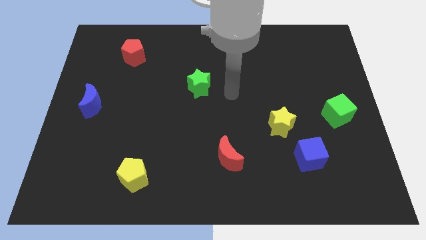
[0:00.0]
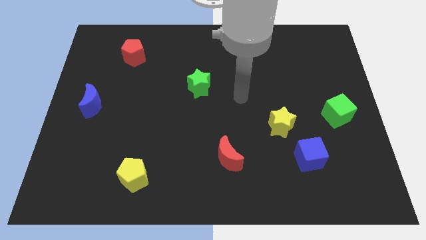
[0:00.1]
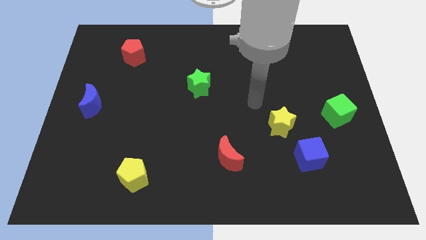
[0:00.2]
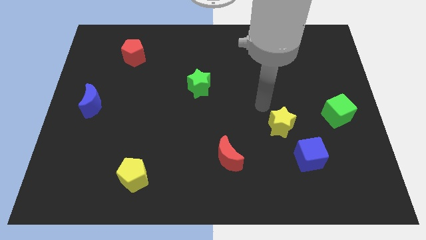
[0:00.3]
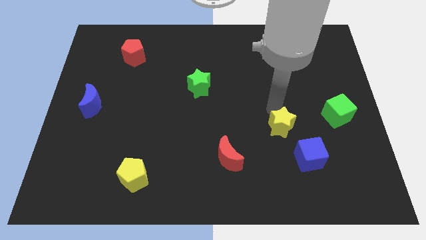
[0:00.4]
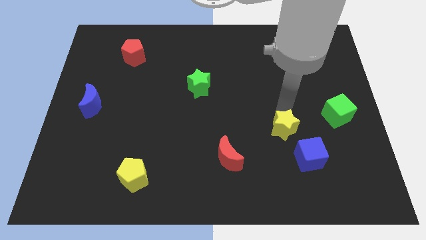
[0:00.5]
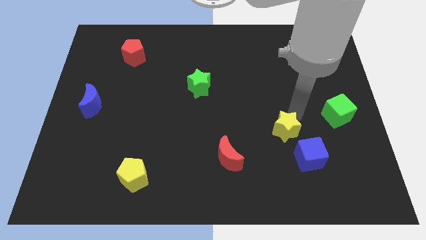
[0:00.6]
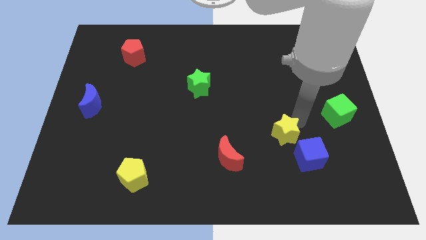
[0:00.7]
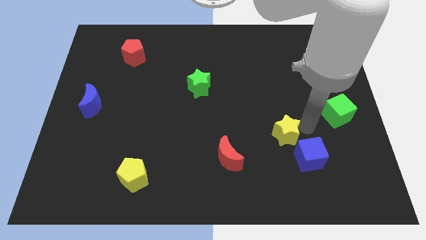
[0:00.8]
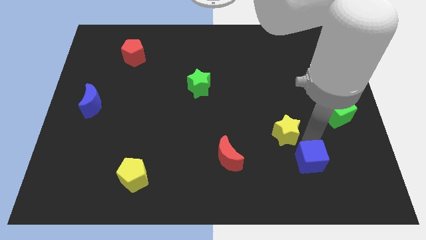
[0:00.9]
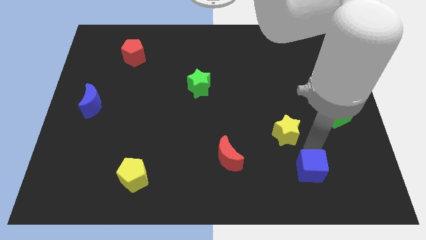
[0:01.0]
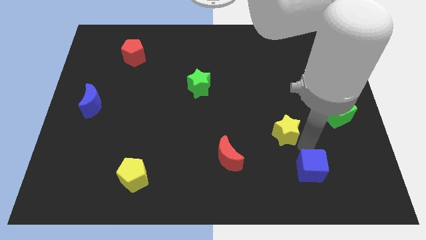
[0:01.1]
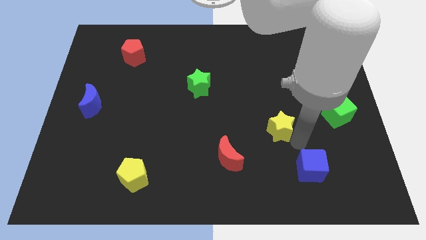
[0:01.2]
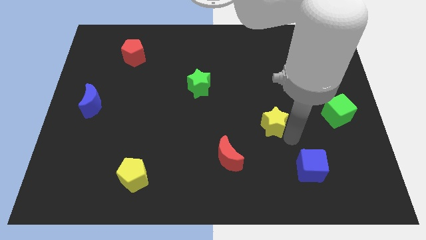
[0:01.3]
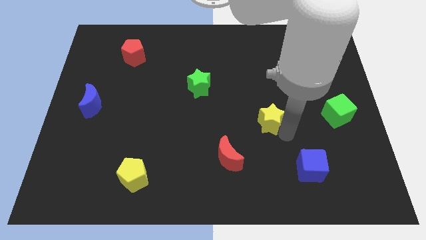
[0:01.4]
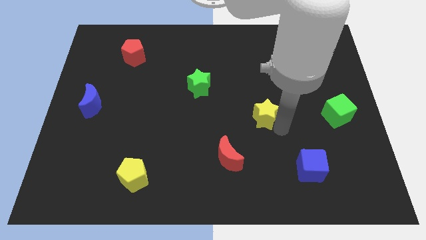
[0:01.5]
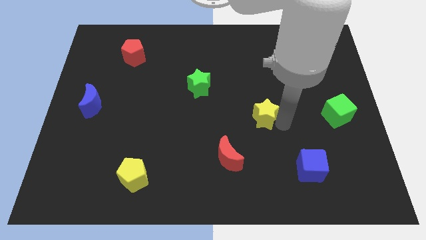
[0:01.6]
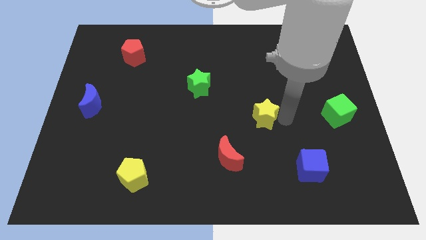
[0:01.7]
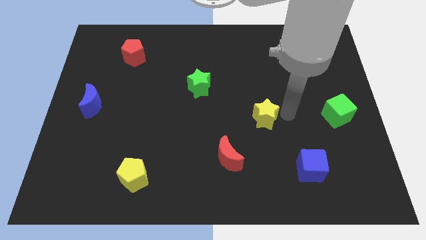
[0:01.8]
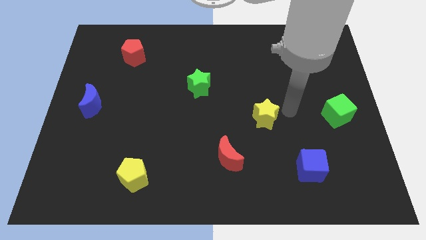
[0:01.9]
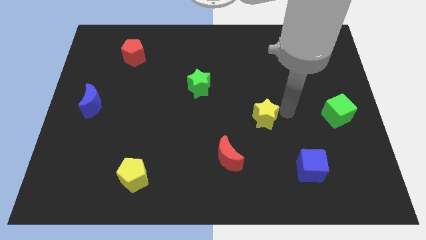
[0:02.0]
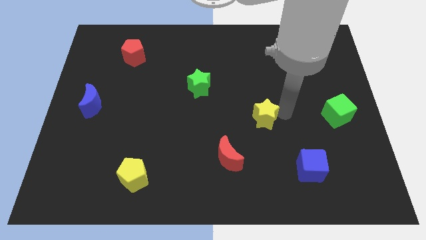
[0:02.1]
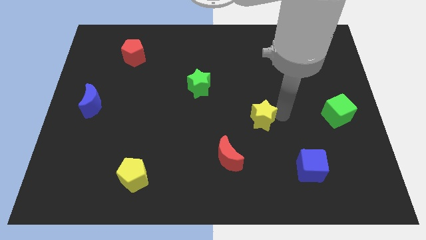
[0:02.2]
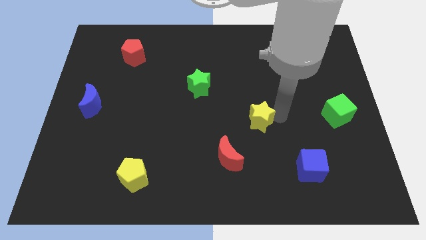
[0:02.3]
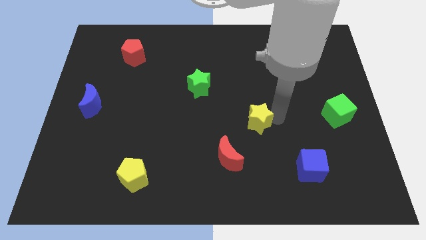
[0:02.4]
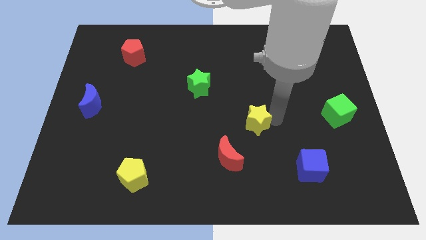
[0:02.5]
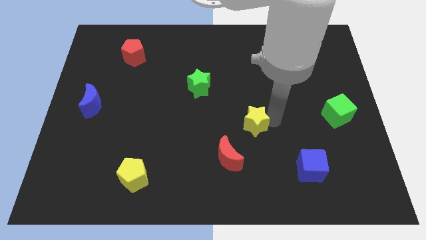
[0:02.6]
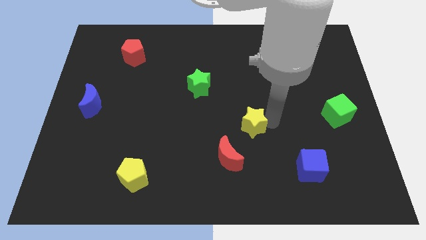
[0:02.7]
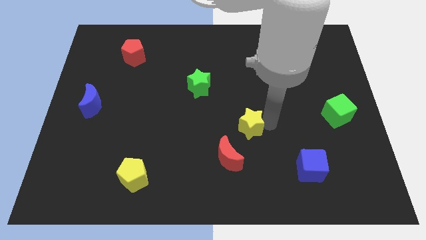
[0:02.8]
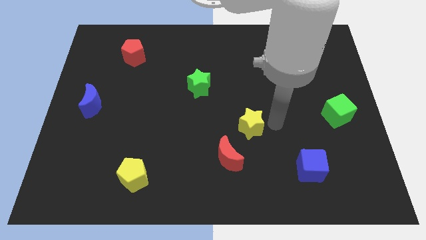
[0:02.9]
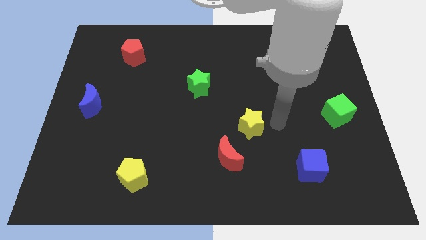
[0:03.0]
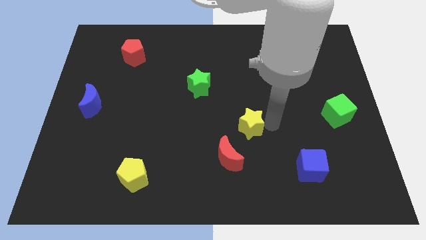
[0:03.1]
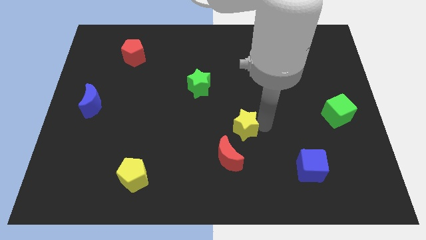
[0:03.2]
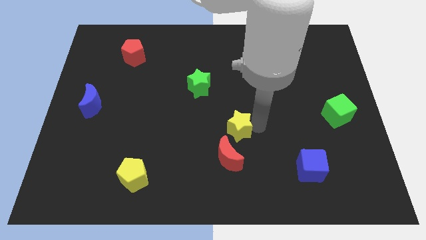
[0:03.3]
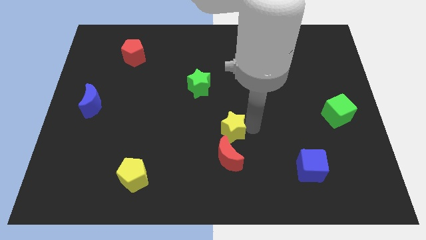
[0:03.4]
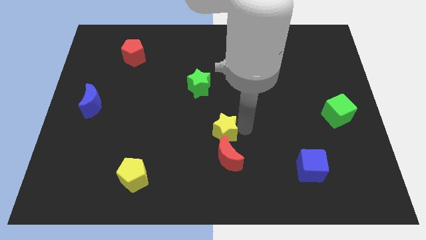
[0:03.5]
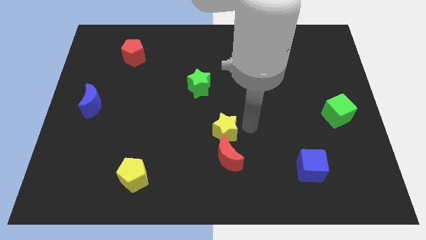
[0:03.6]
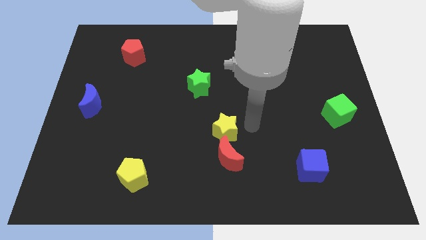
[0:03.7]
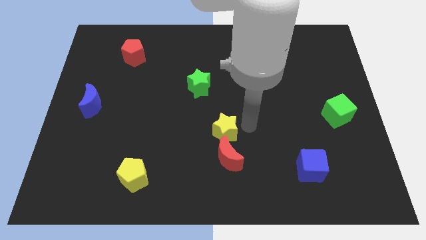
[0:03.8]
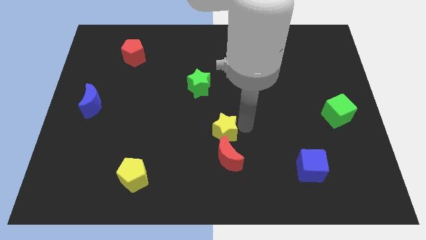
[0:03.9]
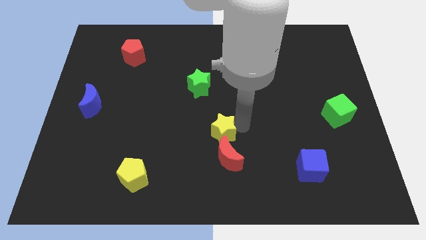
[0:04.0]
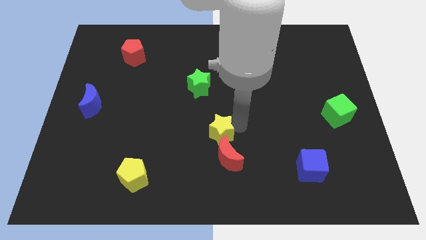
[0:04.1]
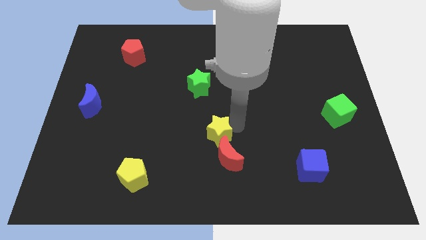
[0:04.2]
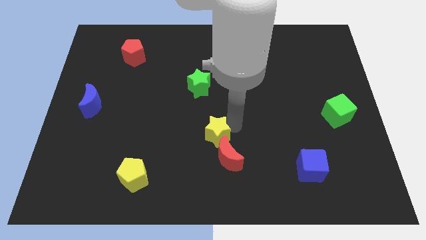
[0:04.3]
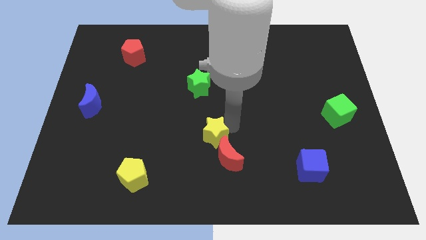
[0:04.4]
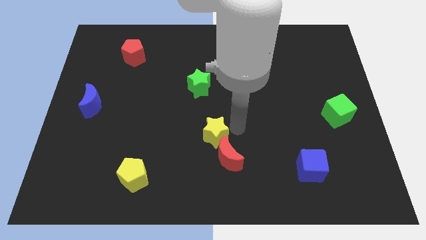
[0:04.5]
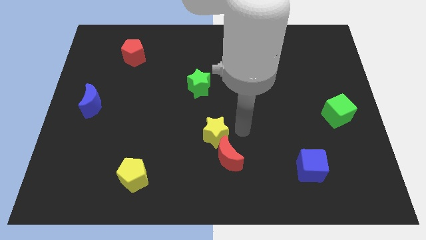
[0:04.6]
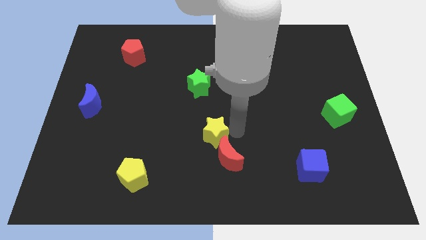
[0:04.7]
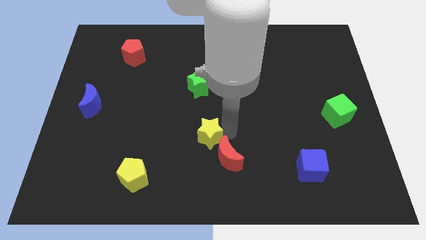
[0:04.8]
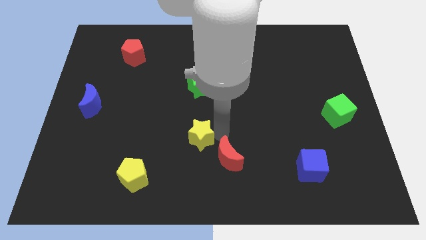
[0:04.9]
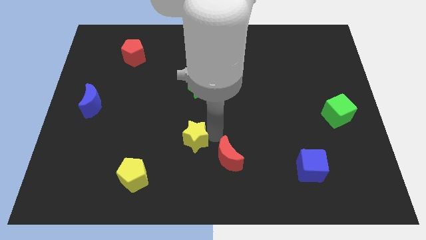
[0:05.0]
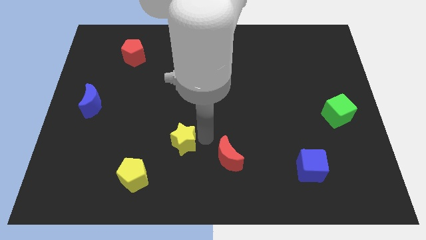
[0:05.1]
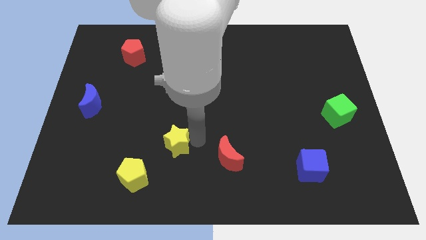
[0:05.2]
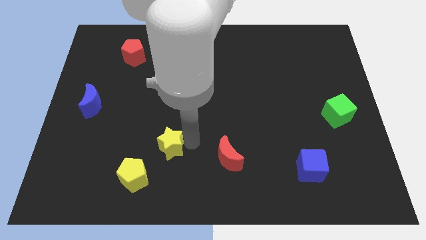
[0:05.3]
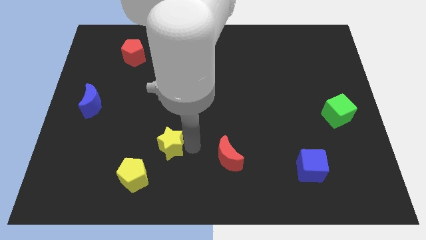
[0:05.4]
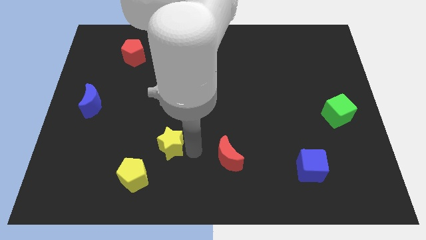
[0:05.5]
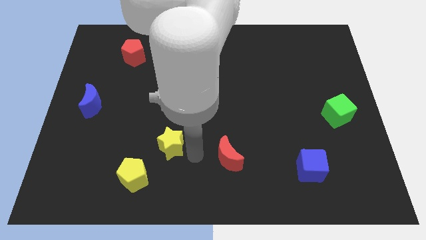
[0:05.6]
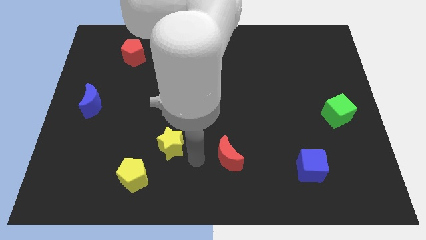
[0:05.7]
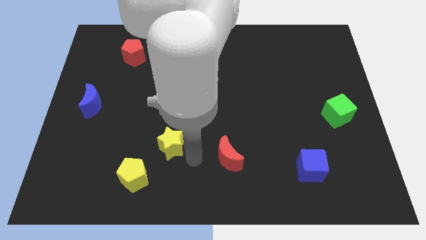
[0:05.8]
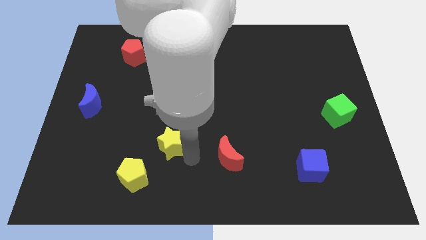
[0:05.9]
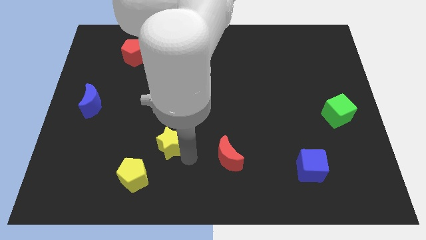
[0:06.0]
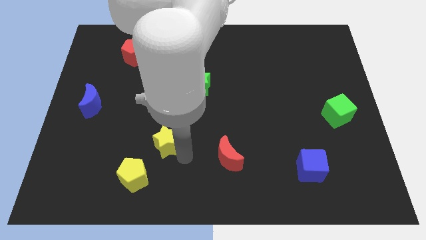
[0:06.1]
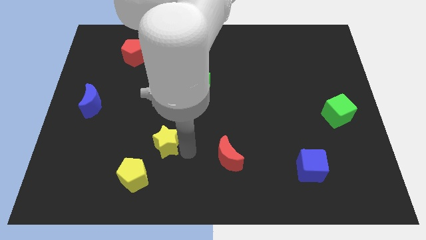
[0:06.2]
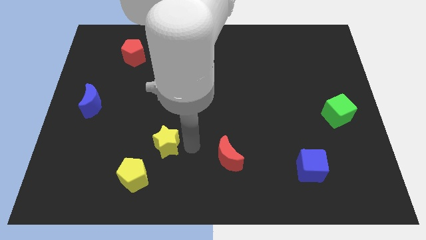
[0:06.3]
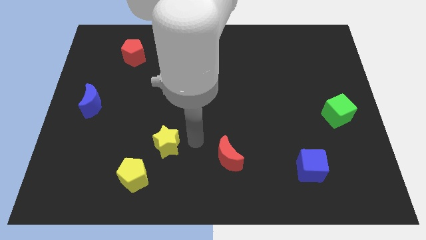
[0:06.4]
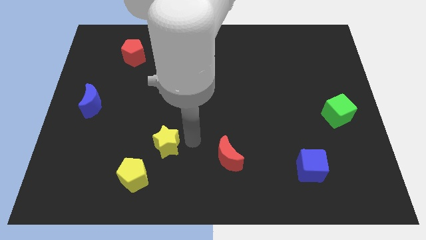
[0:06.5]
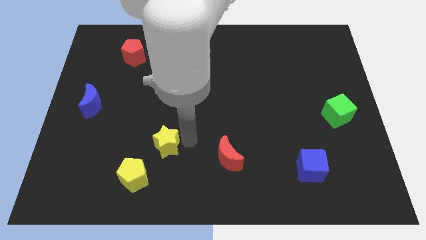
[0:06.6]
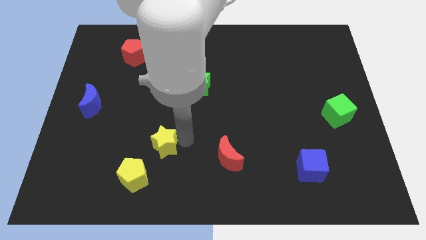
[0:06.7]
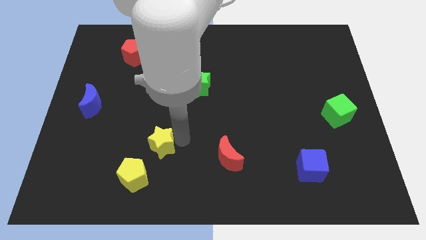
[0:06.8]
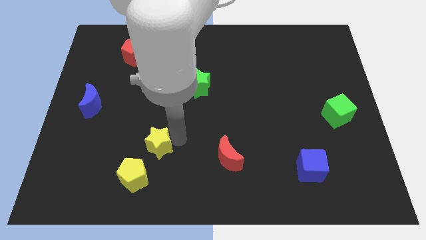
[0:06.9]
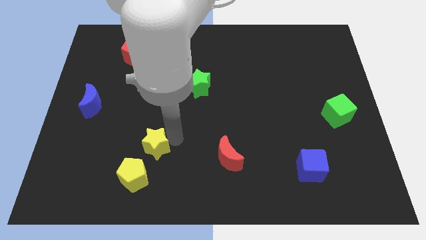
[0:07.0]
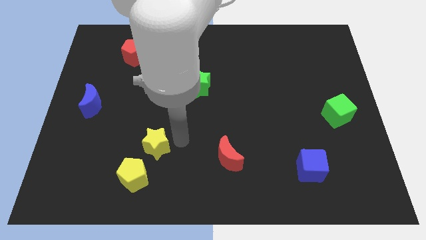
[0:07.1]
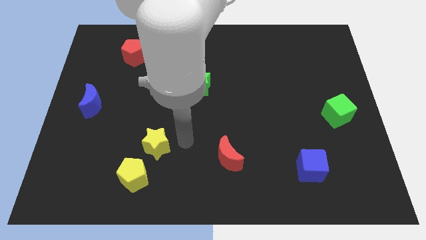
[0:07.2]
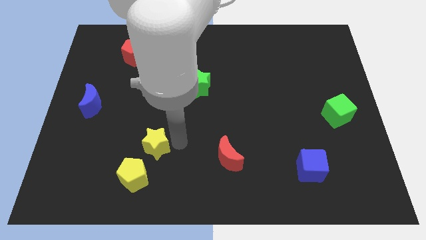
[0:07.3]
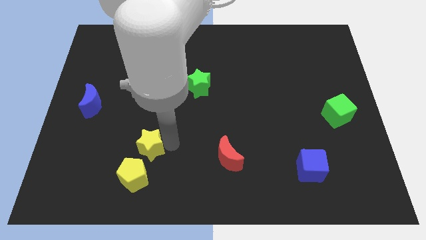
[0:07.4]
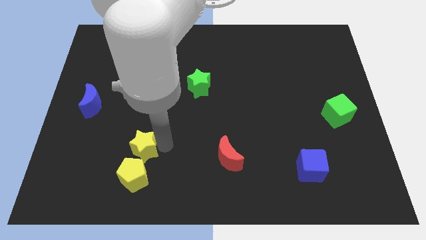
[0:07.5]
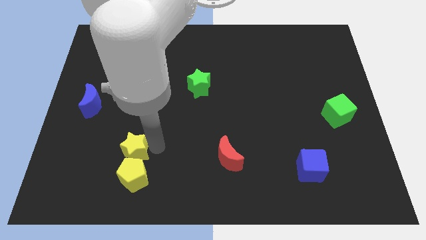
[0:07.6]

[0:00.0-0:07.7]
put the yellow star diagonally up and to the left of the yellow pentagon
